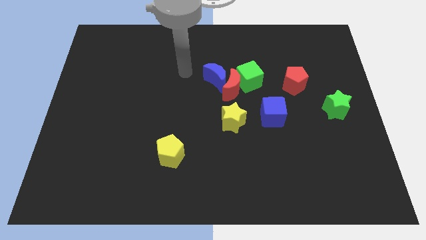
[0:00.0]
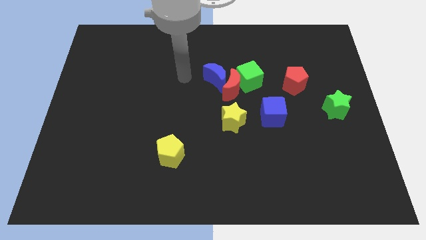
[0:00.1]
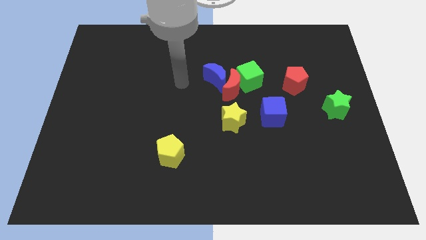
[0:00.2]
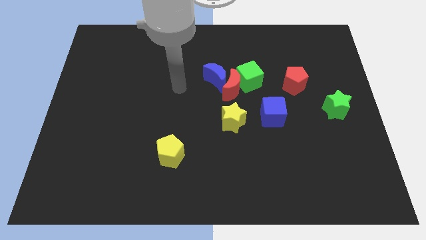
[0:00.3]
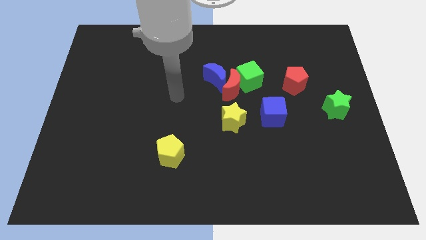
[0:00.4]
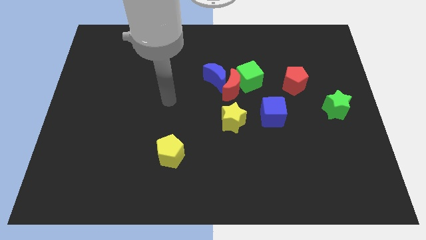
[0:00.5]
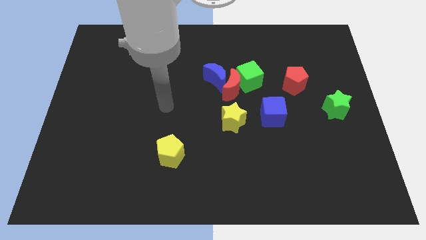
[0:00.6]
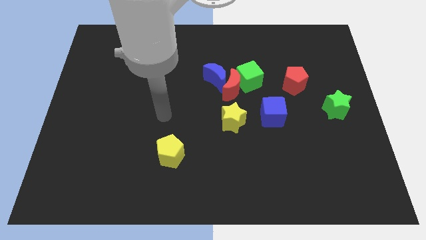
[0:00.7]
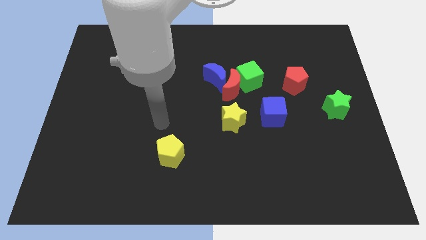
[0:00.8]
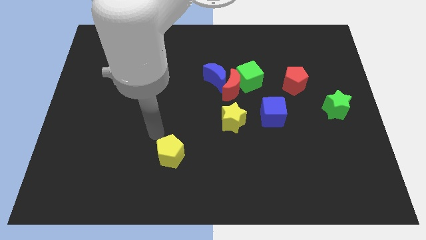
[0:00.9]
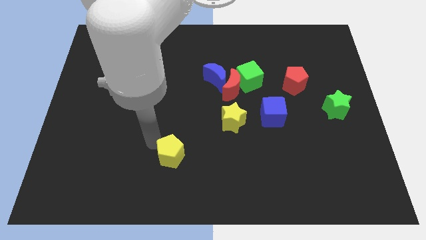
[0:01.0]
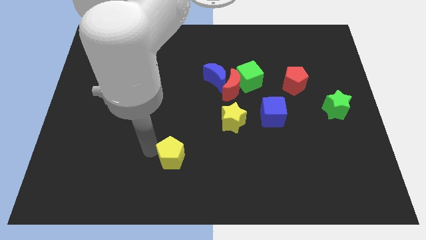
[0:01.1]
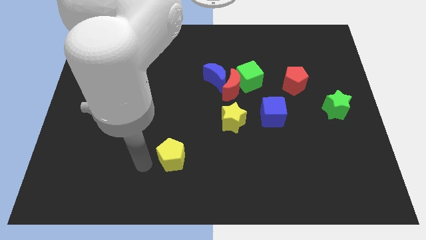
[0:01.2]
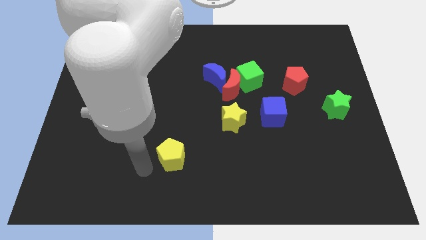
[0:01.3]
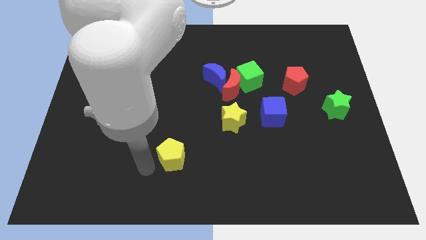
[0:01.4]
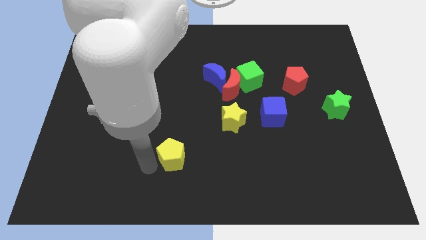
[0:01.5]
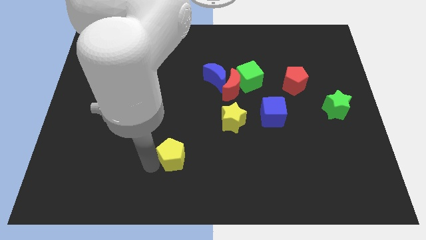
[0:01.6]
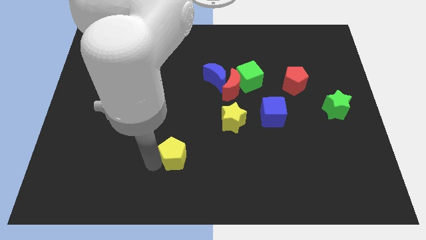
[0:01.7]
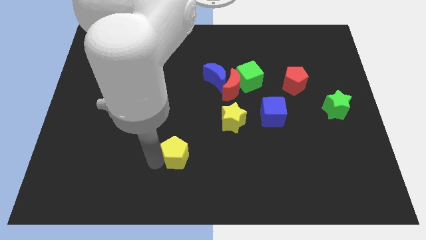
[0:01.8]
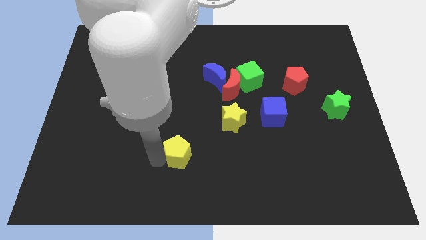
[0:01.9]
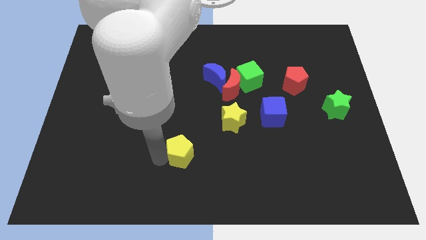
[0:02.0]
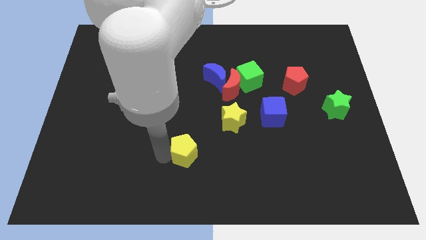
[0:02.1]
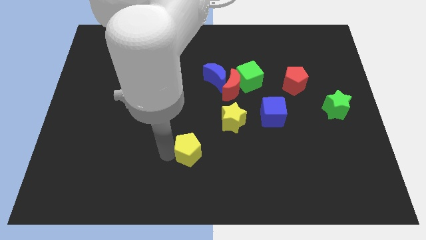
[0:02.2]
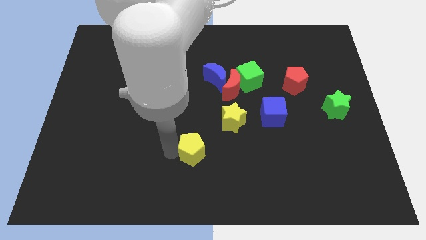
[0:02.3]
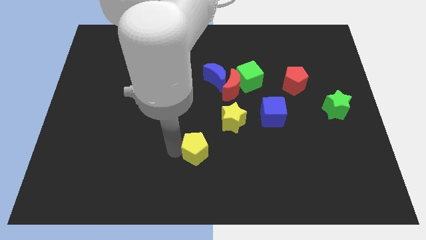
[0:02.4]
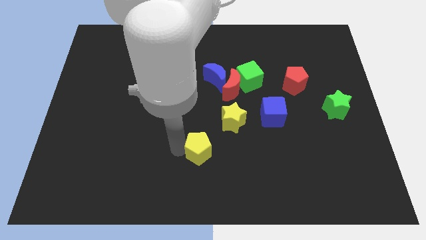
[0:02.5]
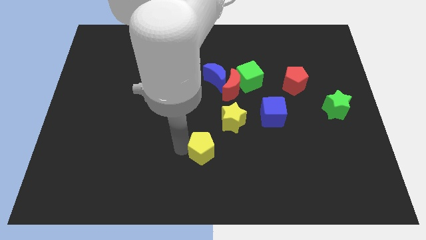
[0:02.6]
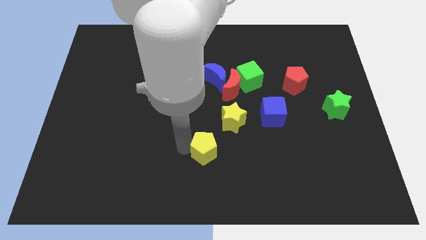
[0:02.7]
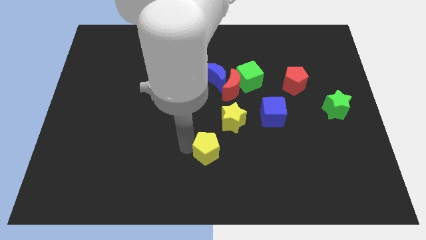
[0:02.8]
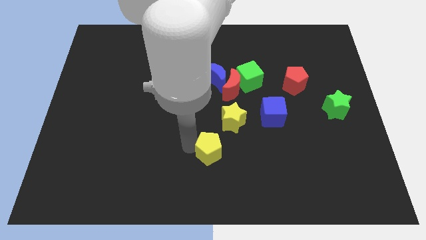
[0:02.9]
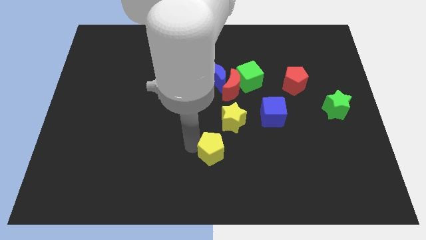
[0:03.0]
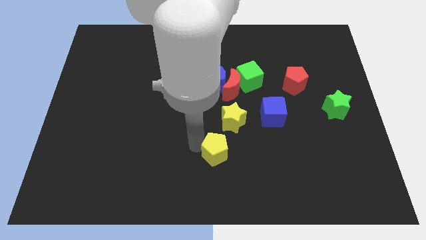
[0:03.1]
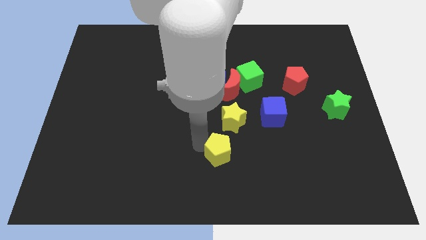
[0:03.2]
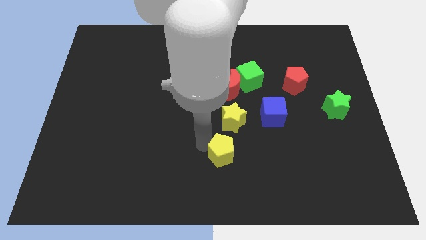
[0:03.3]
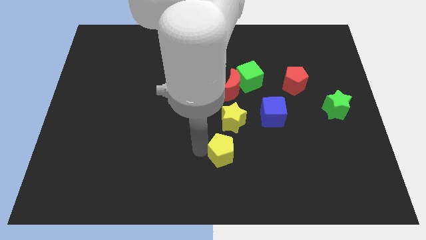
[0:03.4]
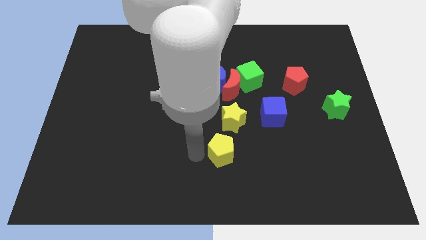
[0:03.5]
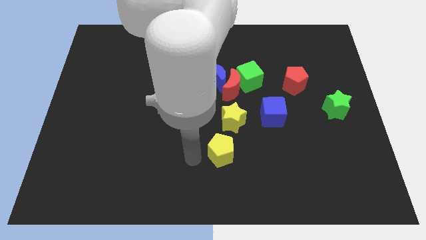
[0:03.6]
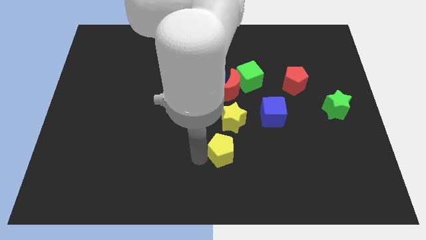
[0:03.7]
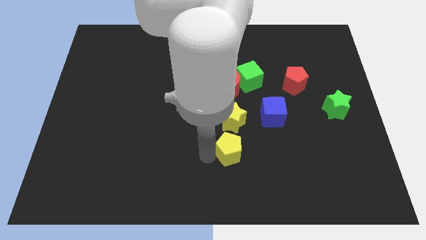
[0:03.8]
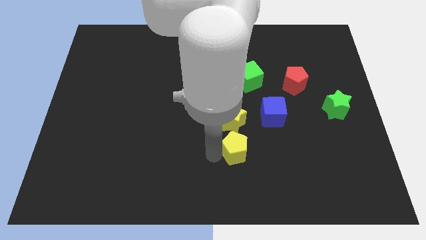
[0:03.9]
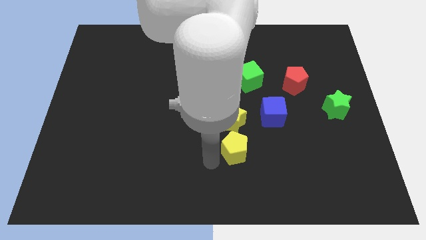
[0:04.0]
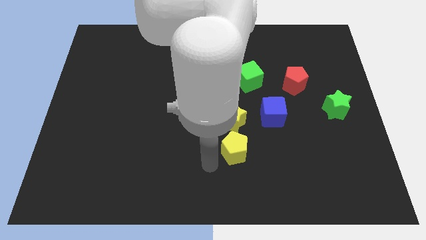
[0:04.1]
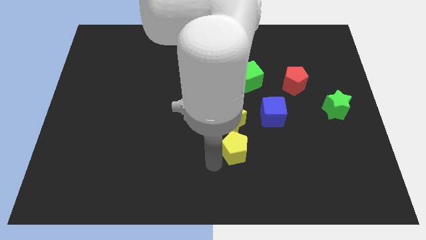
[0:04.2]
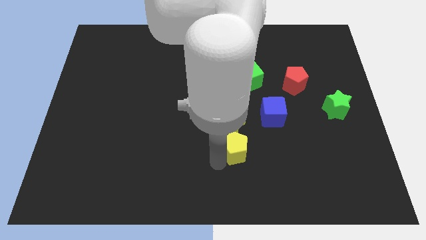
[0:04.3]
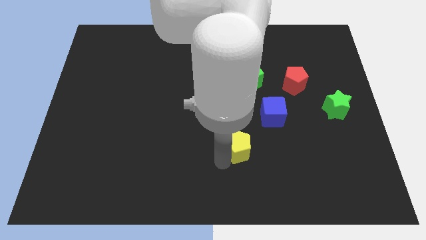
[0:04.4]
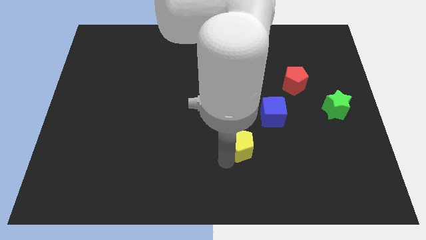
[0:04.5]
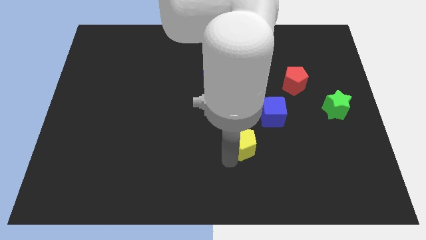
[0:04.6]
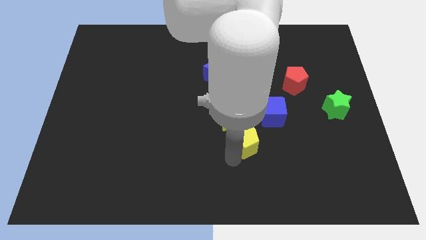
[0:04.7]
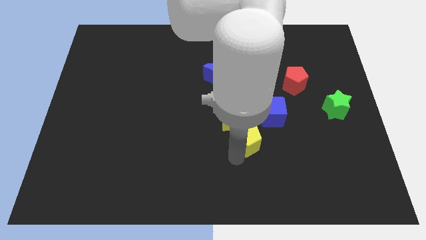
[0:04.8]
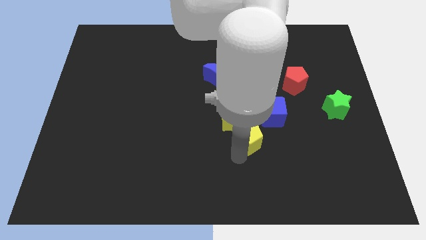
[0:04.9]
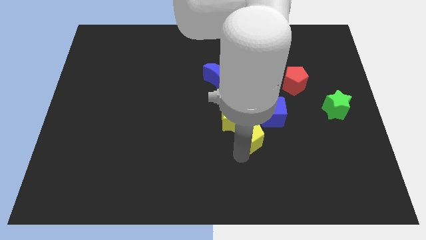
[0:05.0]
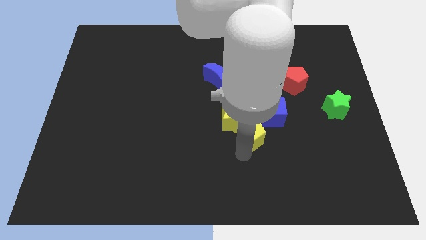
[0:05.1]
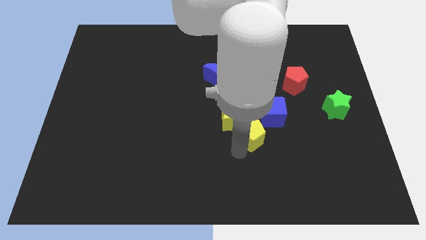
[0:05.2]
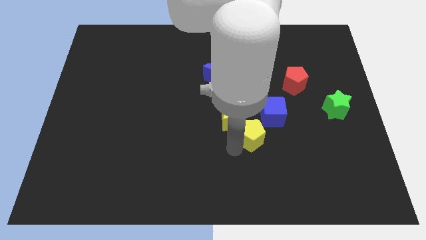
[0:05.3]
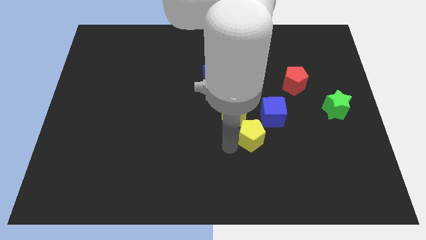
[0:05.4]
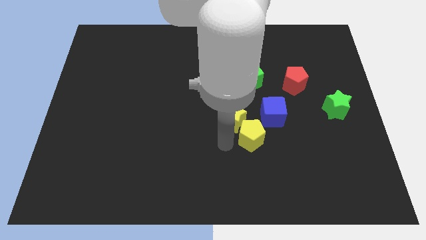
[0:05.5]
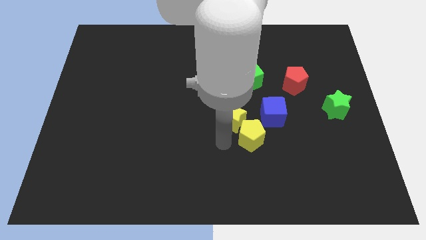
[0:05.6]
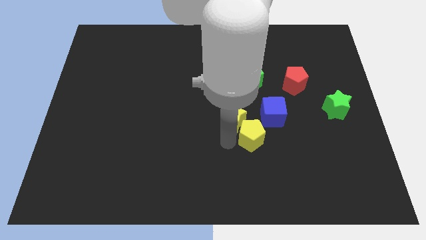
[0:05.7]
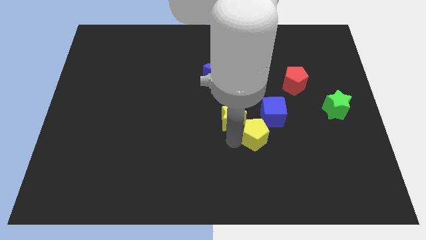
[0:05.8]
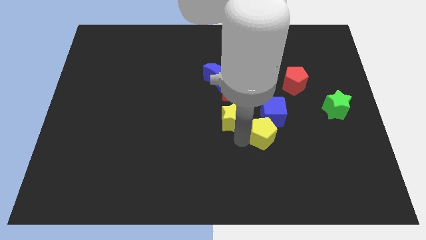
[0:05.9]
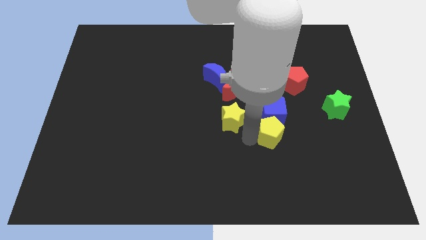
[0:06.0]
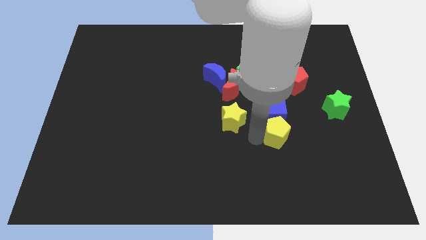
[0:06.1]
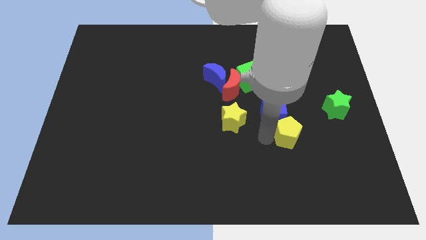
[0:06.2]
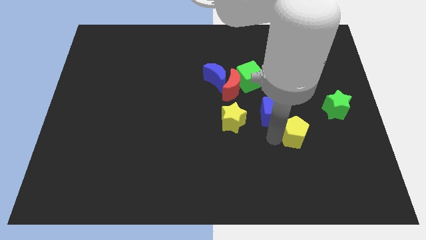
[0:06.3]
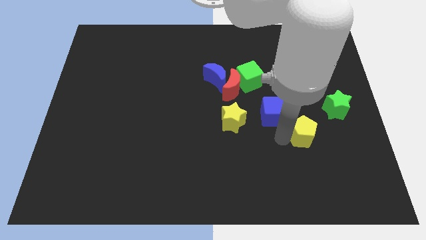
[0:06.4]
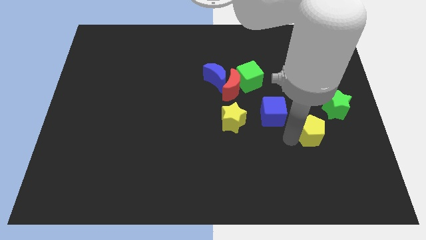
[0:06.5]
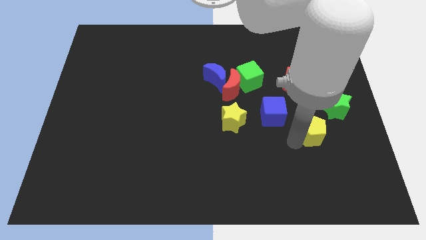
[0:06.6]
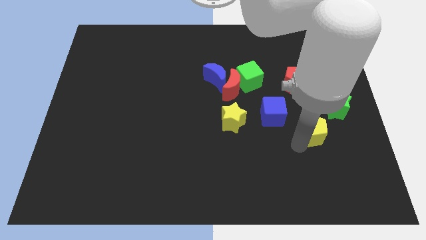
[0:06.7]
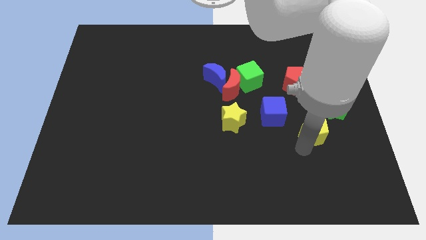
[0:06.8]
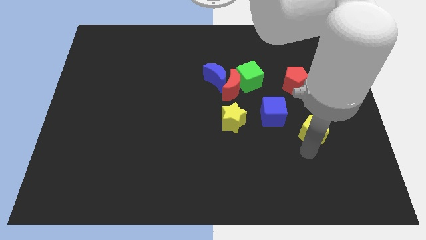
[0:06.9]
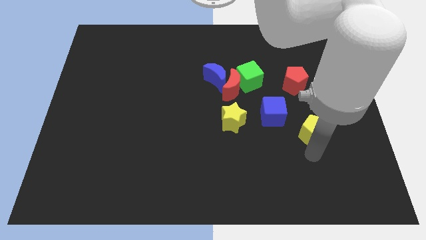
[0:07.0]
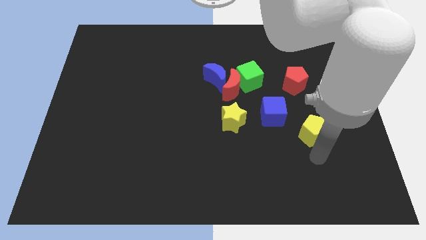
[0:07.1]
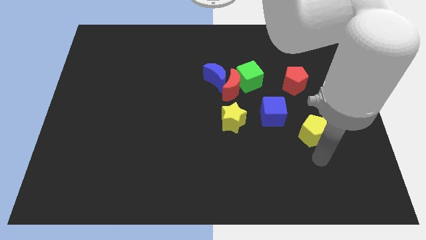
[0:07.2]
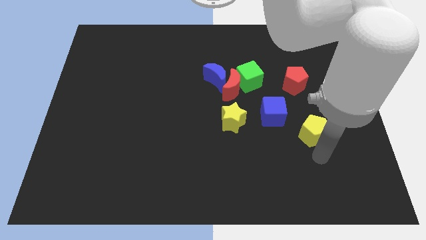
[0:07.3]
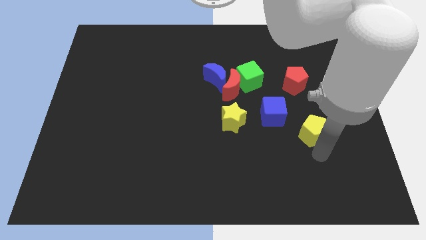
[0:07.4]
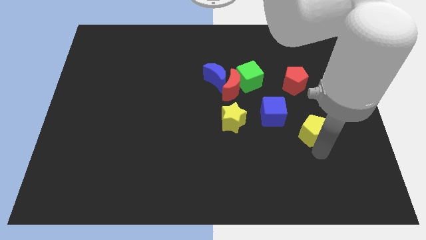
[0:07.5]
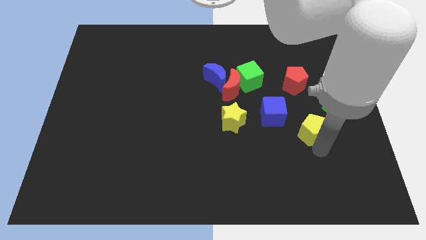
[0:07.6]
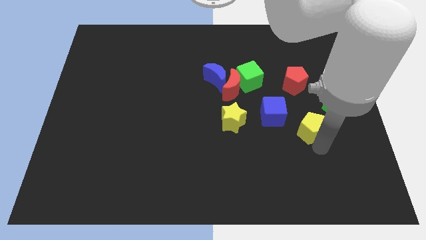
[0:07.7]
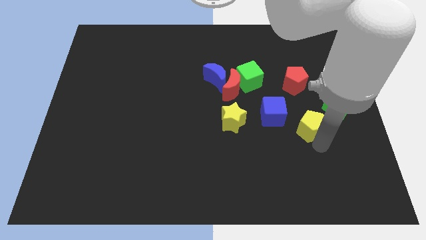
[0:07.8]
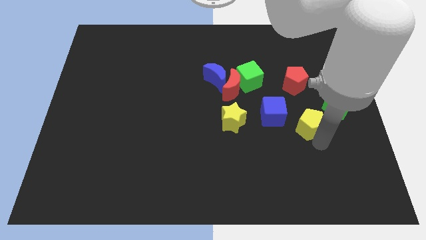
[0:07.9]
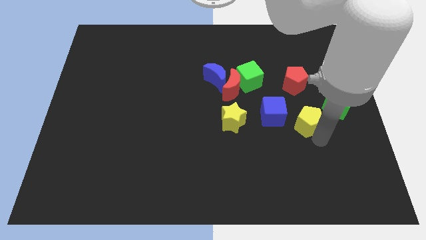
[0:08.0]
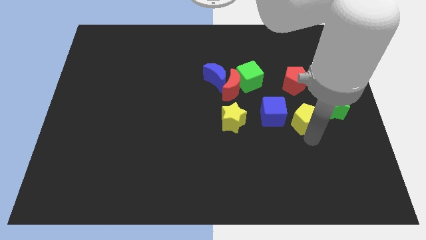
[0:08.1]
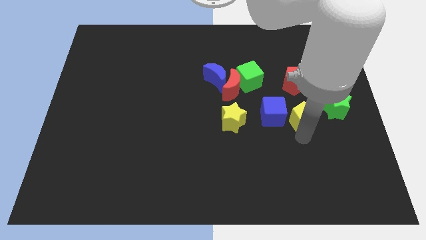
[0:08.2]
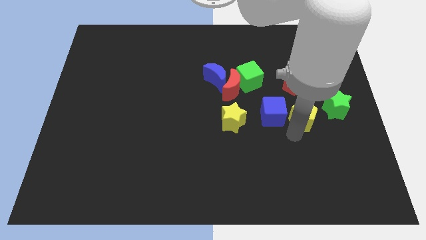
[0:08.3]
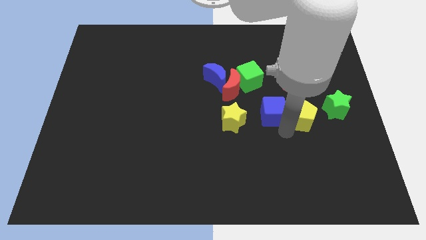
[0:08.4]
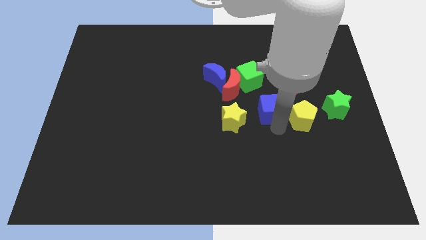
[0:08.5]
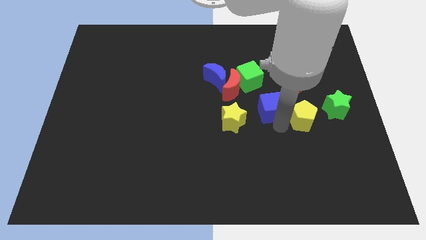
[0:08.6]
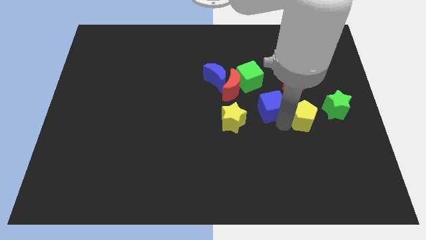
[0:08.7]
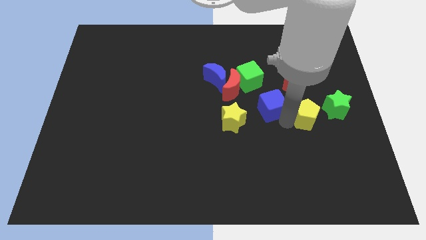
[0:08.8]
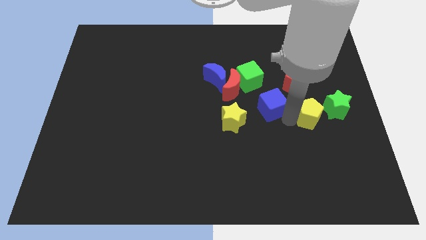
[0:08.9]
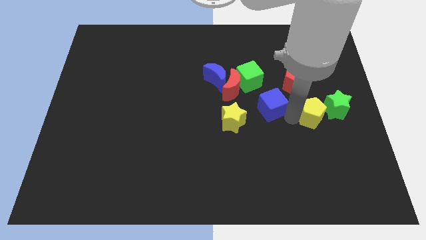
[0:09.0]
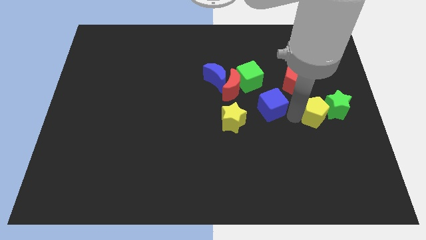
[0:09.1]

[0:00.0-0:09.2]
slide the yellow pentagon towards the green star
